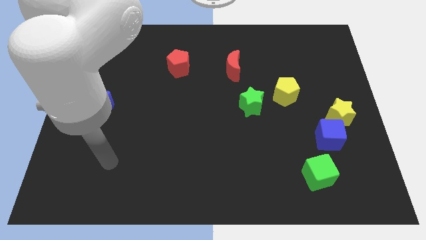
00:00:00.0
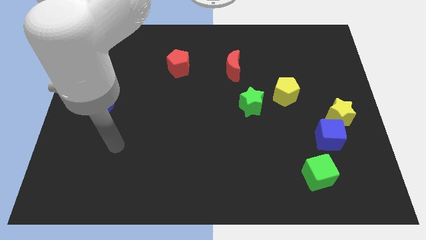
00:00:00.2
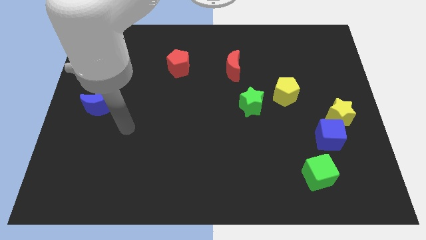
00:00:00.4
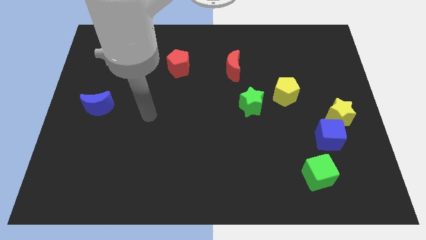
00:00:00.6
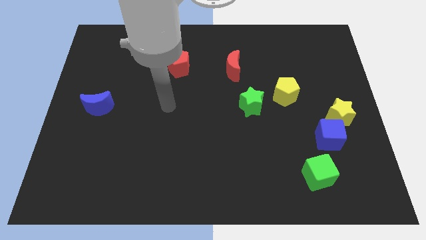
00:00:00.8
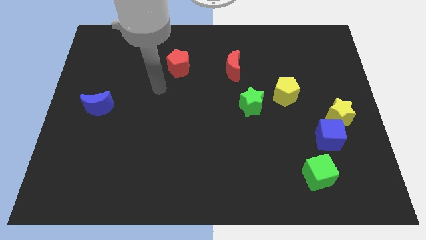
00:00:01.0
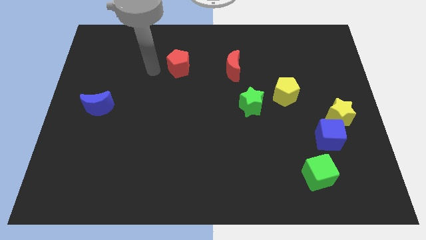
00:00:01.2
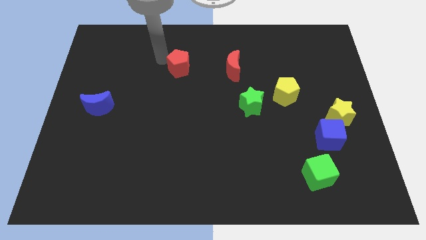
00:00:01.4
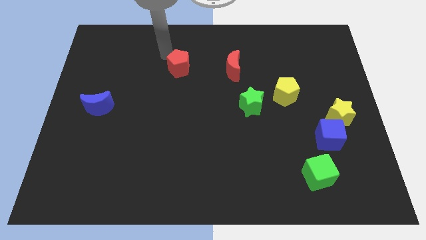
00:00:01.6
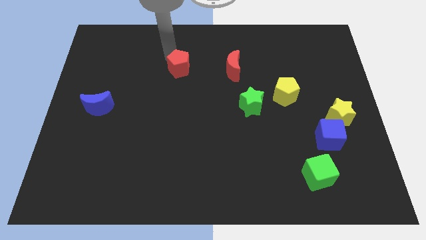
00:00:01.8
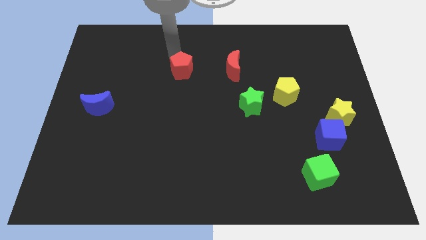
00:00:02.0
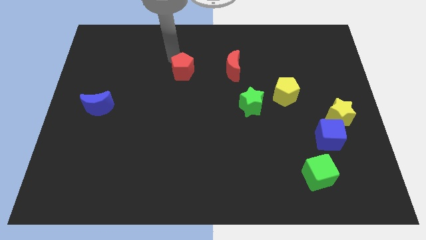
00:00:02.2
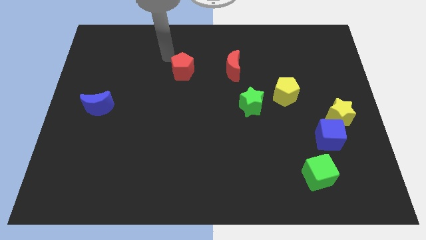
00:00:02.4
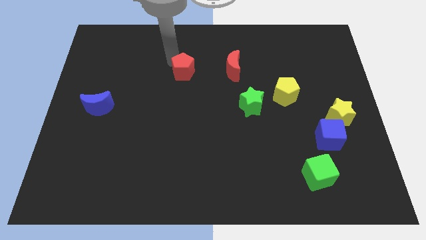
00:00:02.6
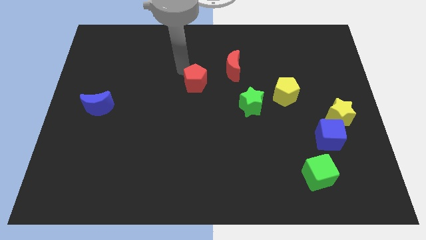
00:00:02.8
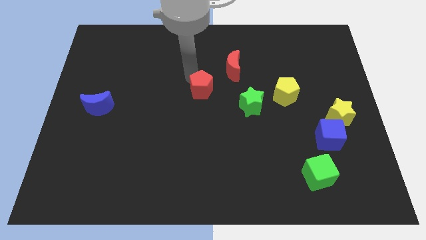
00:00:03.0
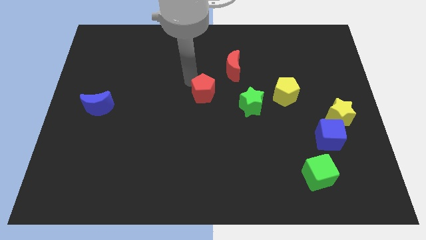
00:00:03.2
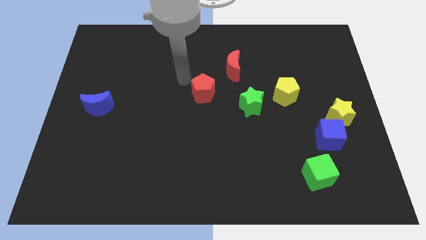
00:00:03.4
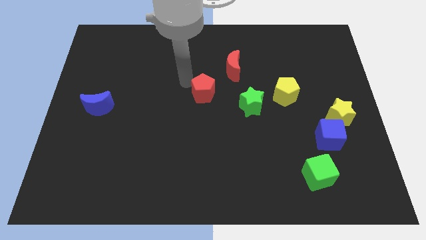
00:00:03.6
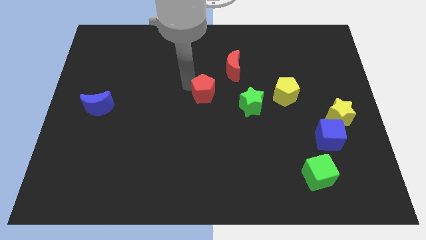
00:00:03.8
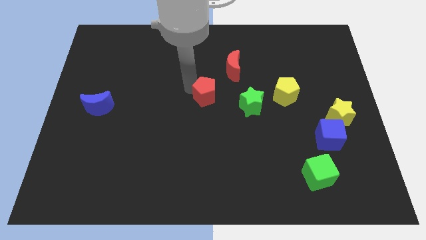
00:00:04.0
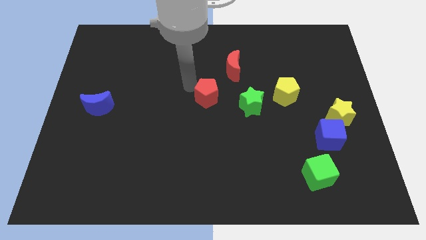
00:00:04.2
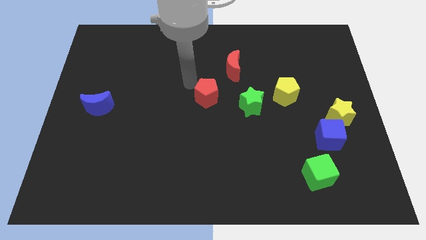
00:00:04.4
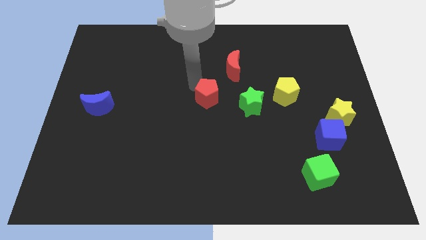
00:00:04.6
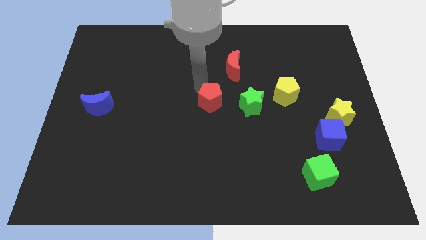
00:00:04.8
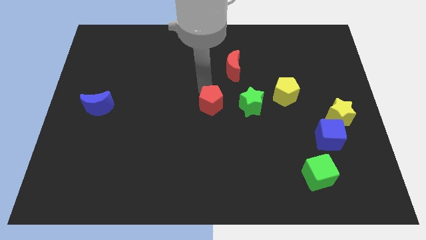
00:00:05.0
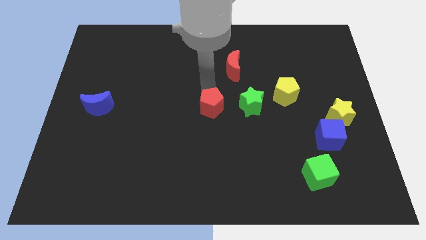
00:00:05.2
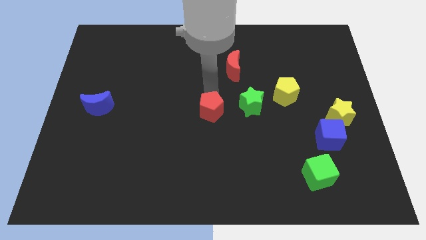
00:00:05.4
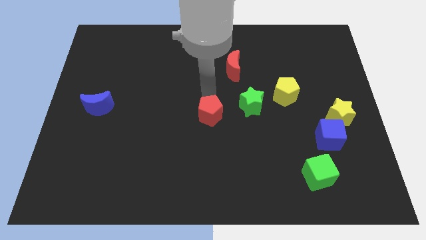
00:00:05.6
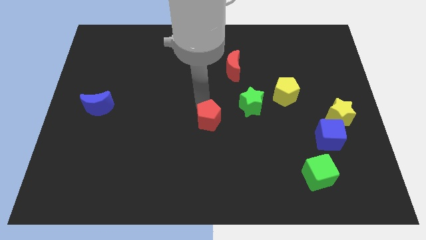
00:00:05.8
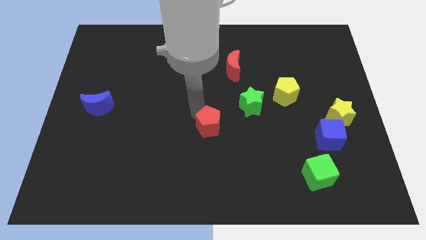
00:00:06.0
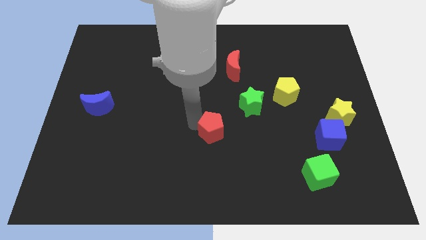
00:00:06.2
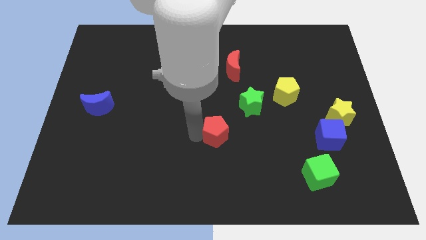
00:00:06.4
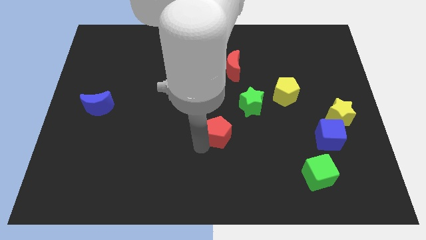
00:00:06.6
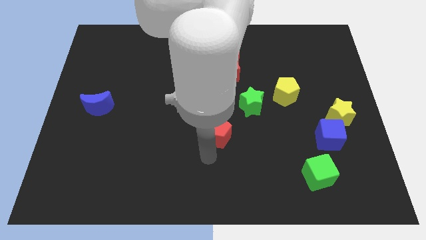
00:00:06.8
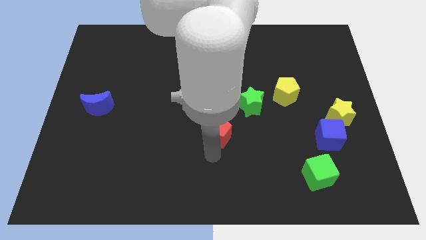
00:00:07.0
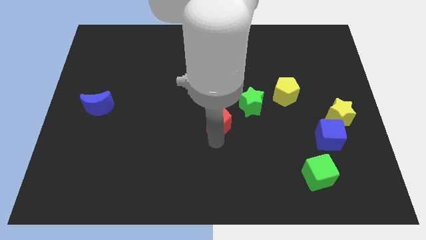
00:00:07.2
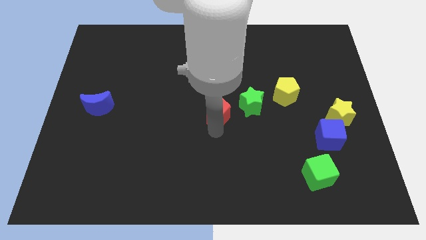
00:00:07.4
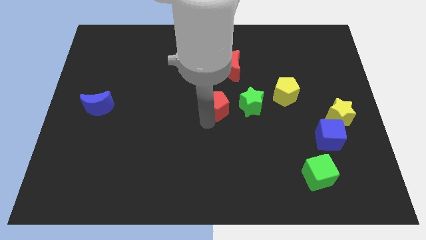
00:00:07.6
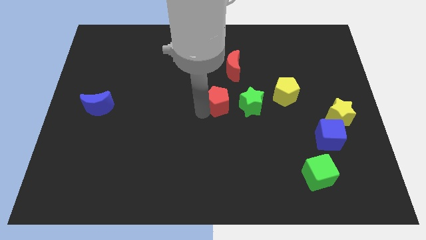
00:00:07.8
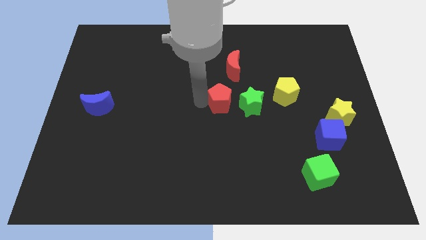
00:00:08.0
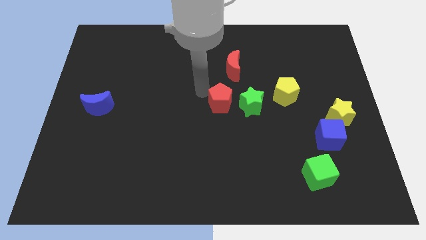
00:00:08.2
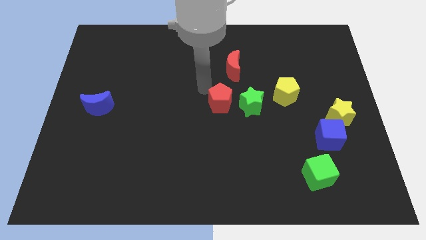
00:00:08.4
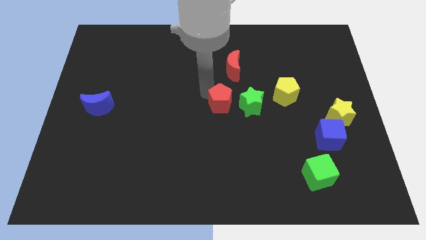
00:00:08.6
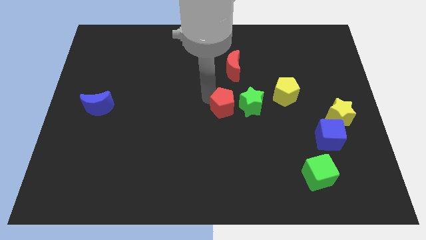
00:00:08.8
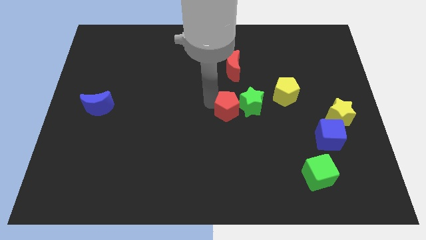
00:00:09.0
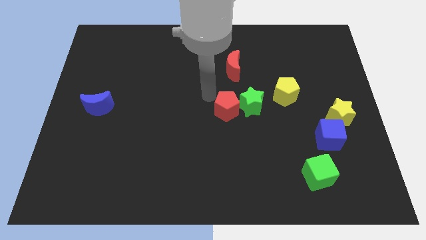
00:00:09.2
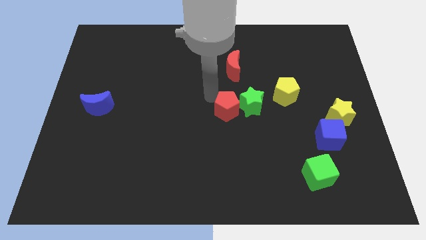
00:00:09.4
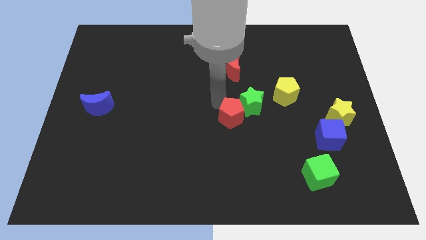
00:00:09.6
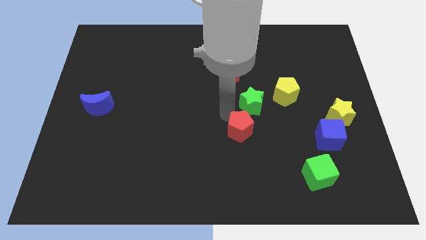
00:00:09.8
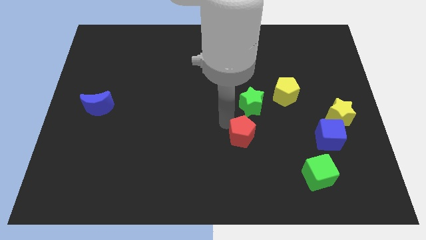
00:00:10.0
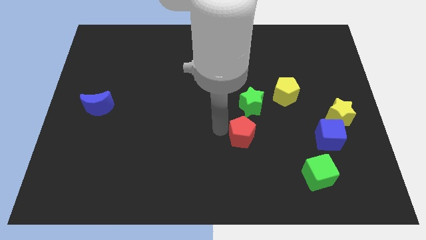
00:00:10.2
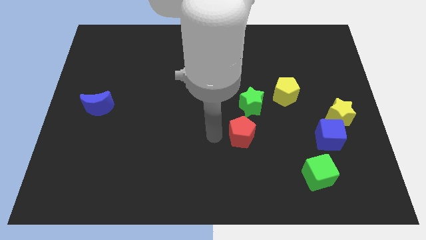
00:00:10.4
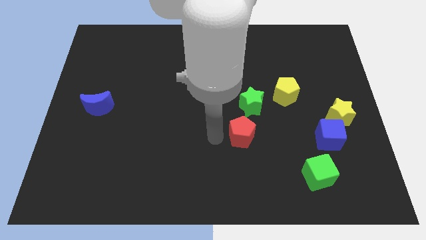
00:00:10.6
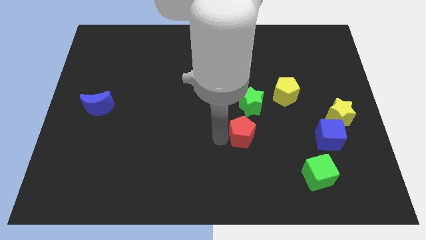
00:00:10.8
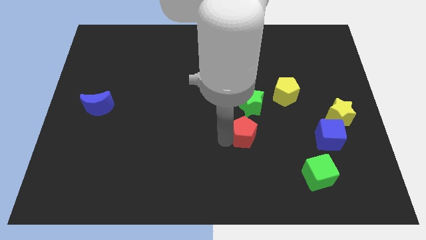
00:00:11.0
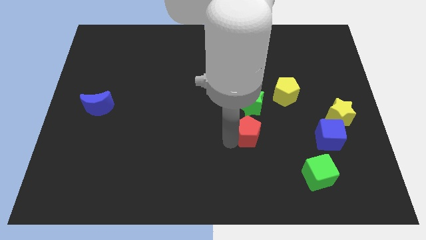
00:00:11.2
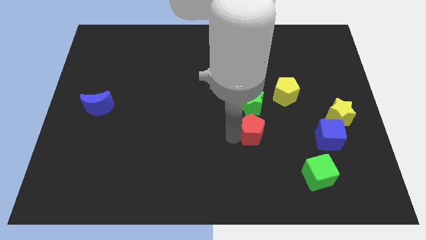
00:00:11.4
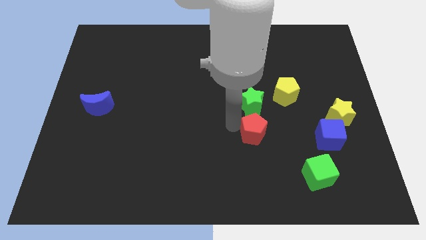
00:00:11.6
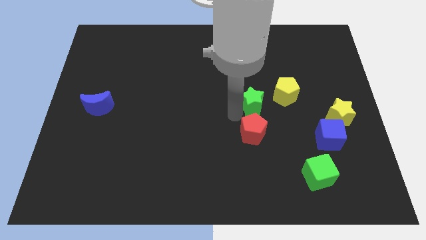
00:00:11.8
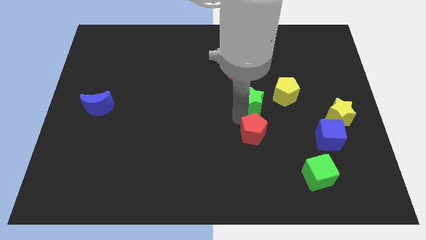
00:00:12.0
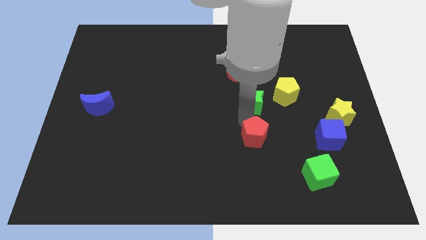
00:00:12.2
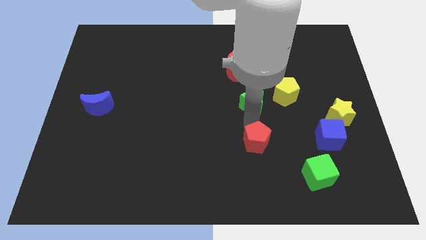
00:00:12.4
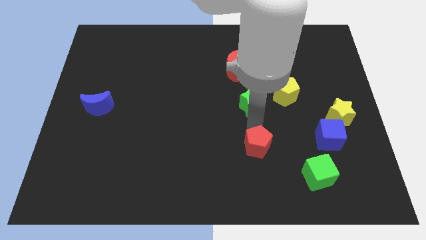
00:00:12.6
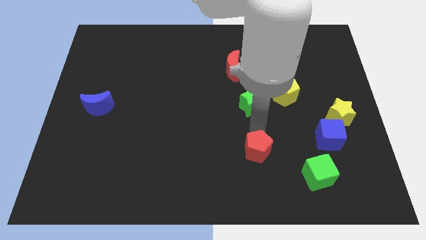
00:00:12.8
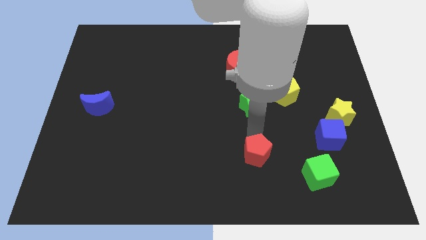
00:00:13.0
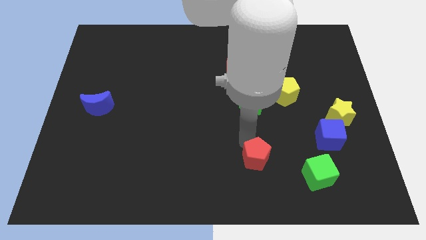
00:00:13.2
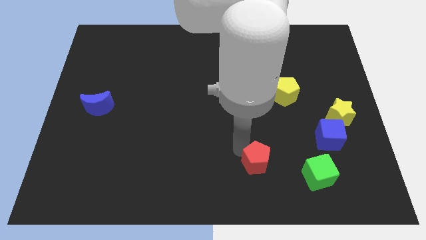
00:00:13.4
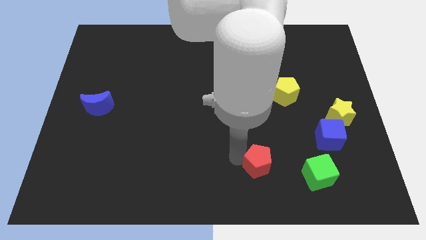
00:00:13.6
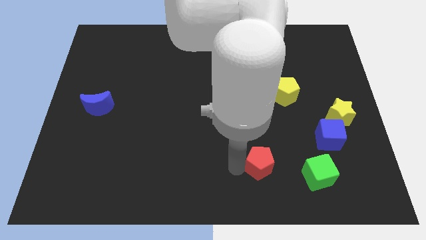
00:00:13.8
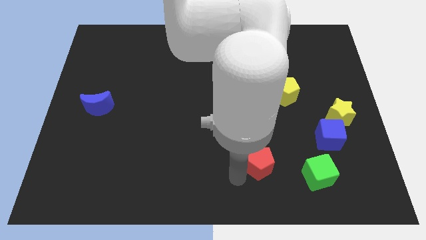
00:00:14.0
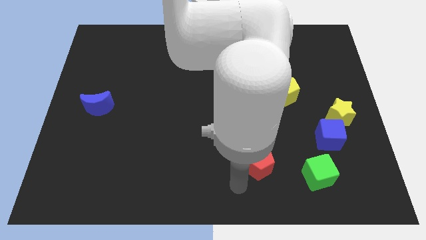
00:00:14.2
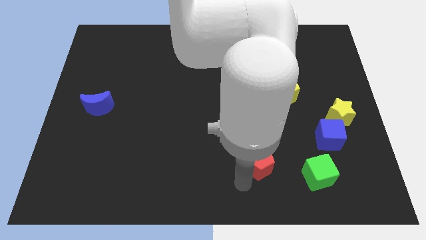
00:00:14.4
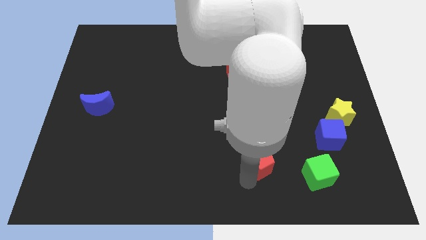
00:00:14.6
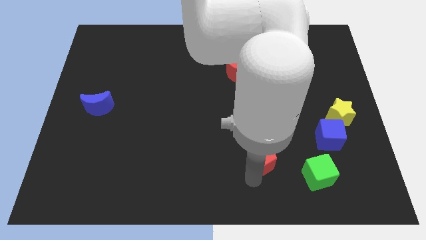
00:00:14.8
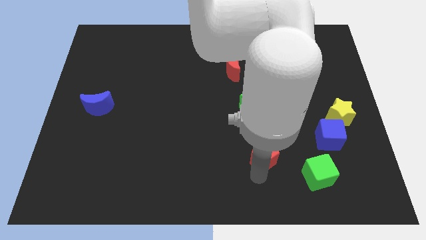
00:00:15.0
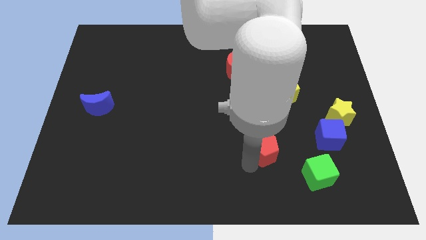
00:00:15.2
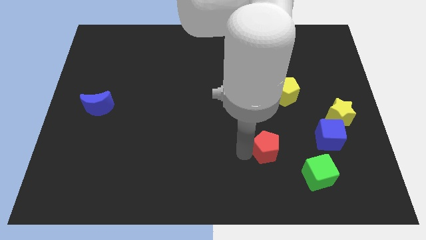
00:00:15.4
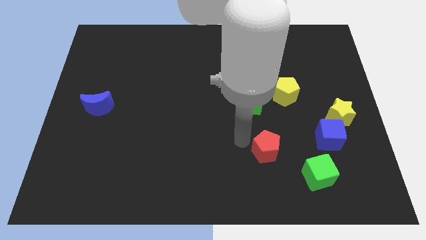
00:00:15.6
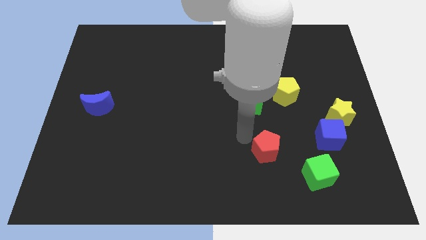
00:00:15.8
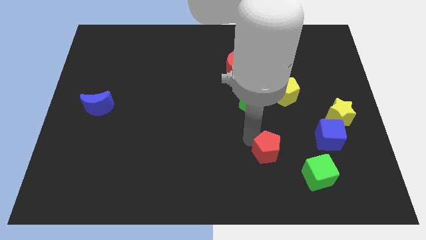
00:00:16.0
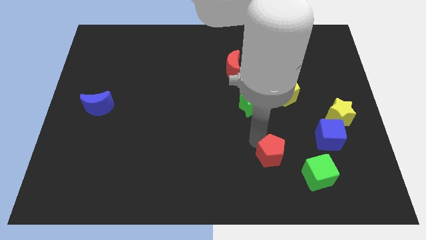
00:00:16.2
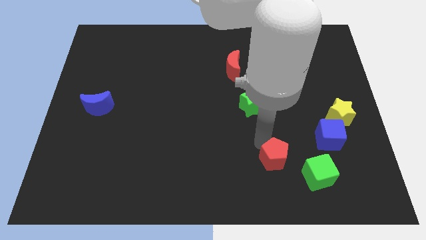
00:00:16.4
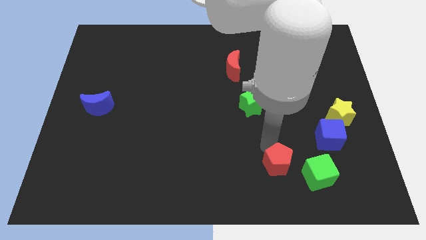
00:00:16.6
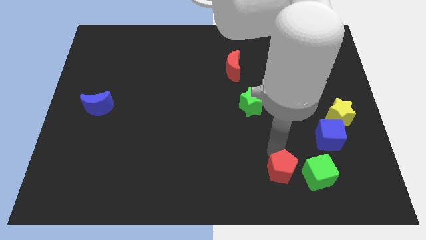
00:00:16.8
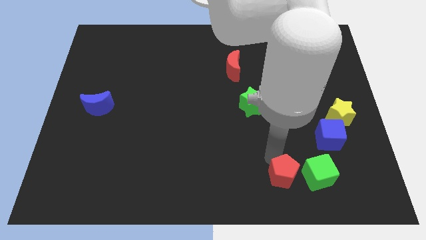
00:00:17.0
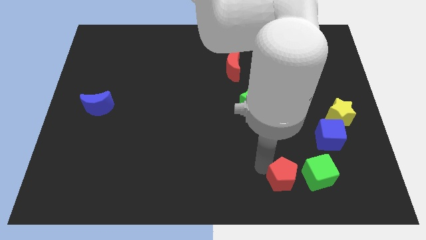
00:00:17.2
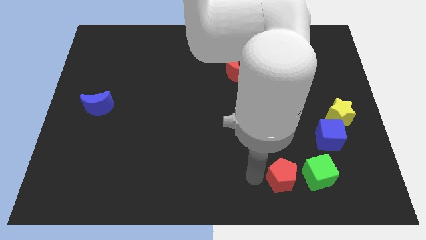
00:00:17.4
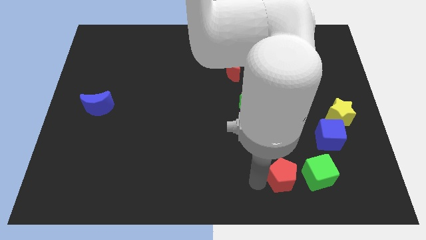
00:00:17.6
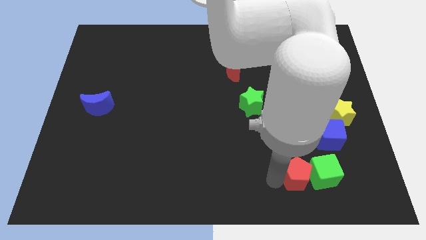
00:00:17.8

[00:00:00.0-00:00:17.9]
slide the red pentagon next to the green cube
